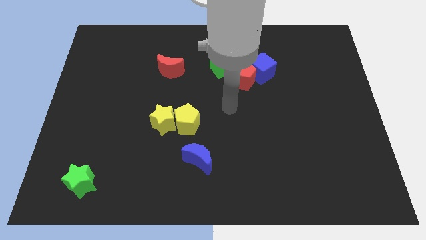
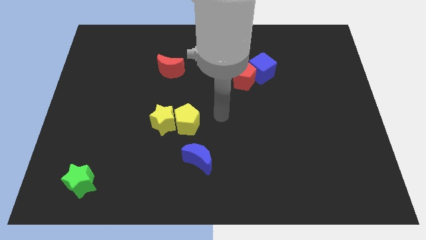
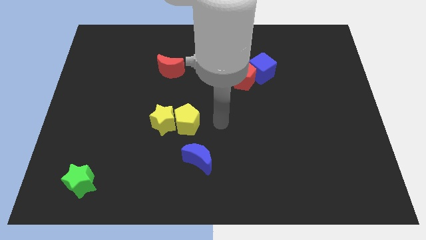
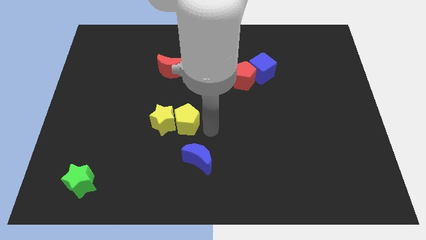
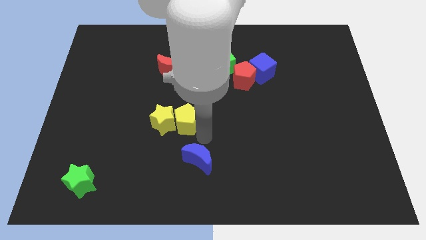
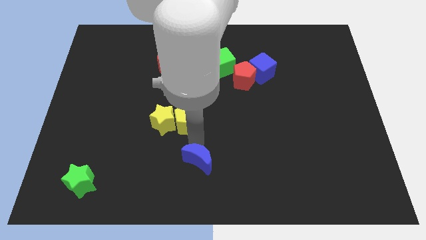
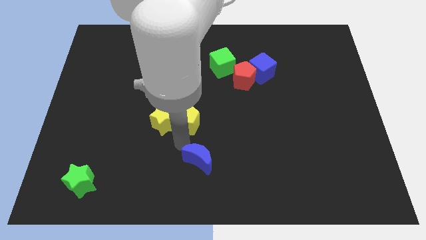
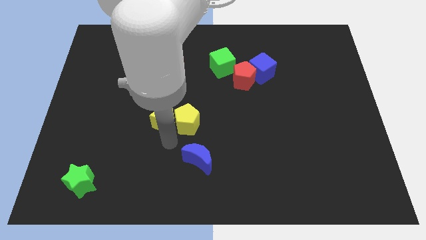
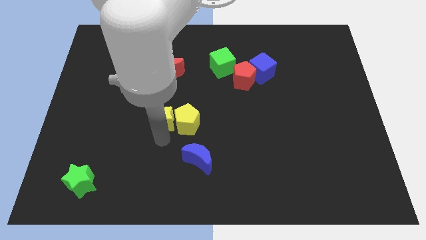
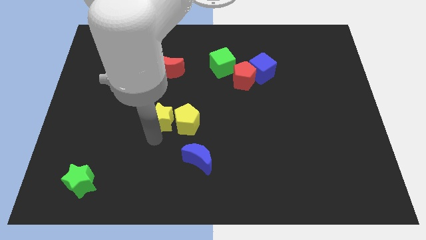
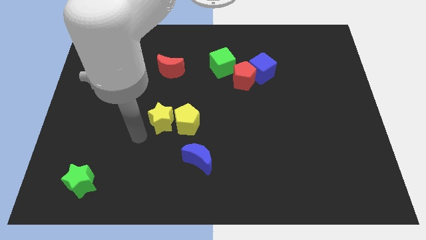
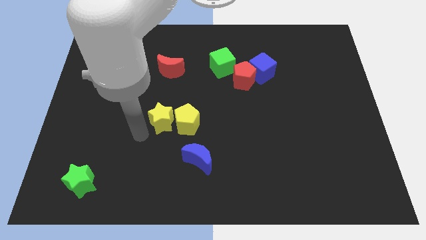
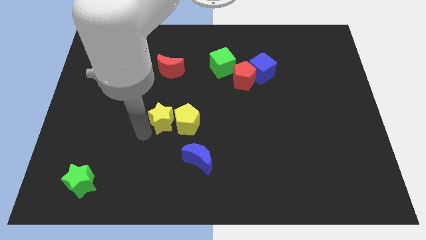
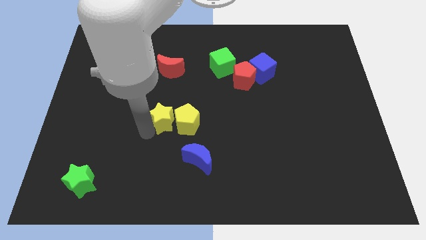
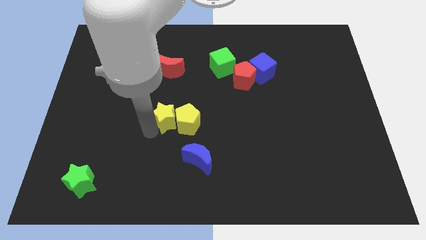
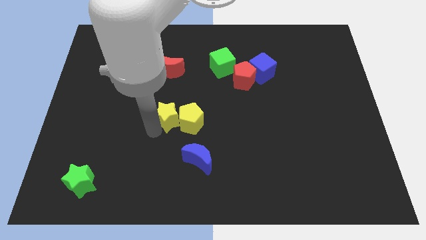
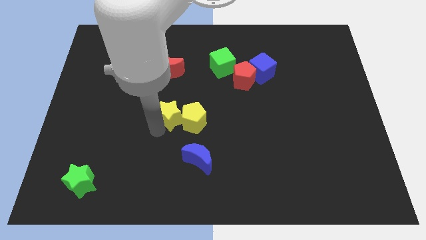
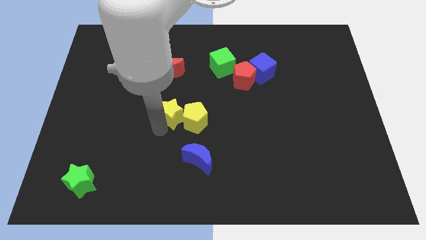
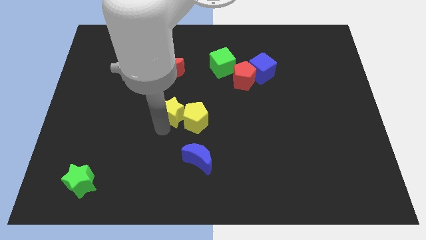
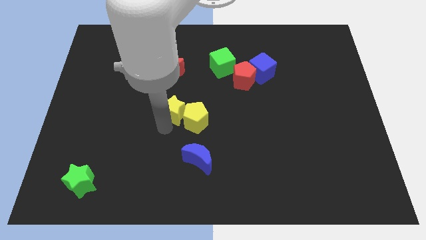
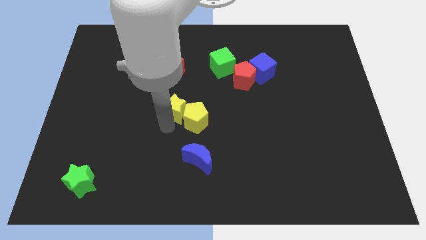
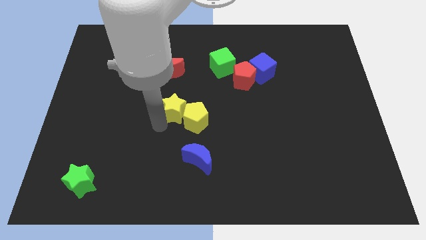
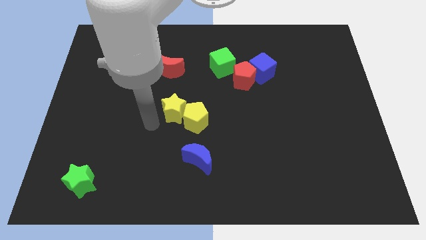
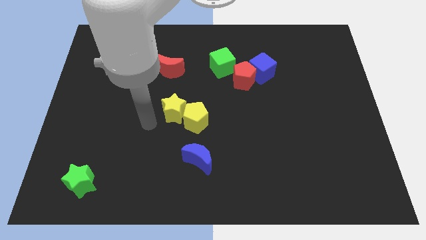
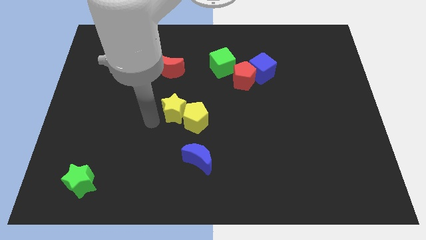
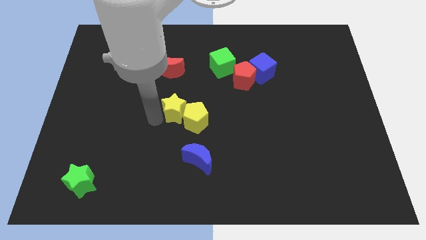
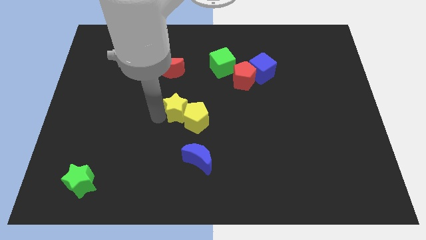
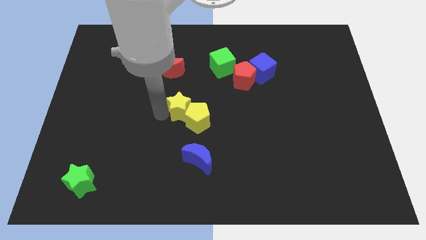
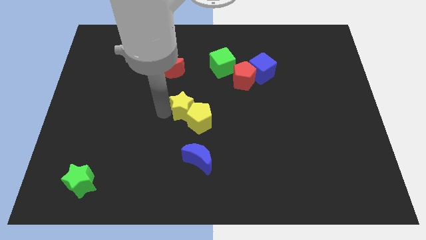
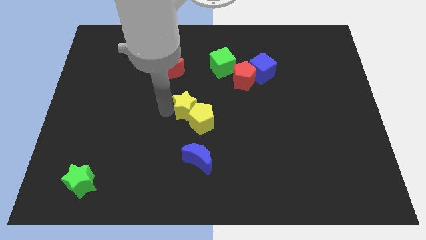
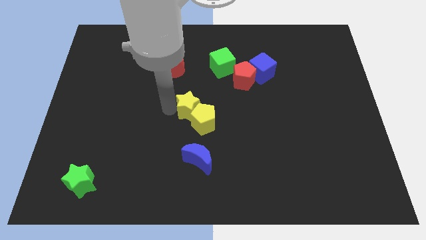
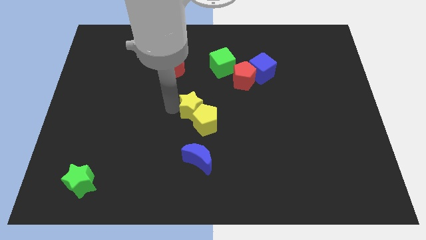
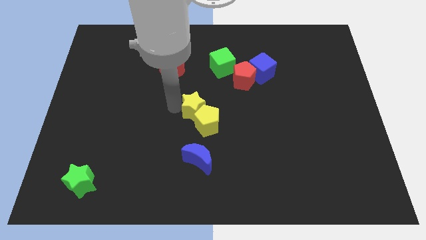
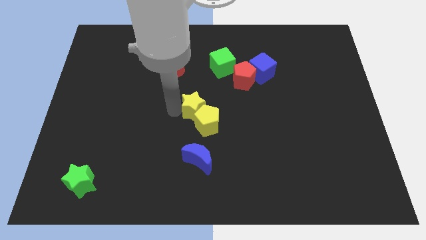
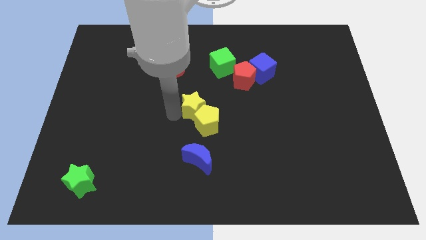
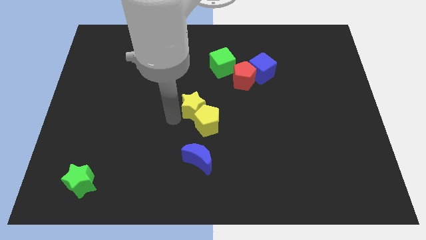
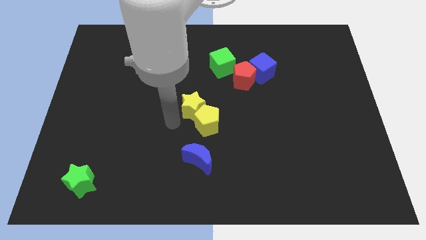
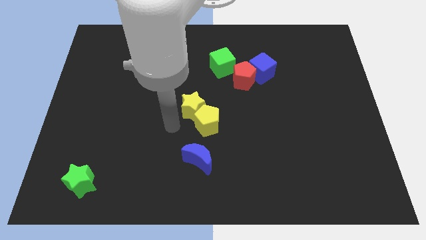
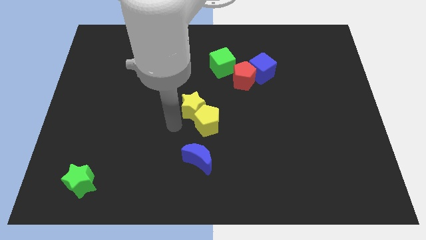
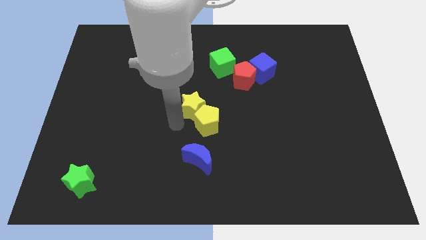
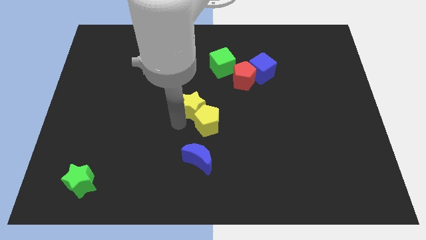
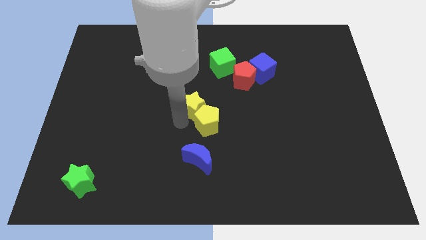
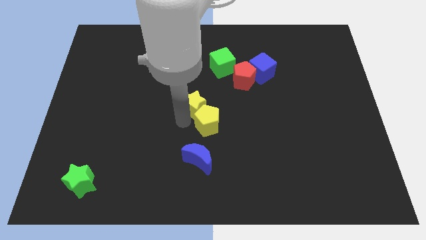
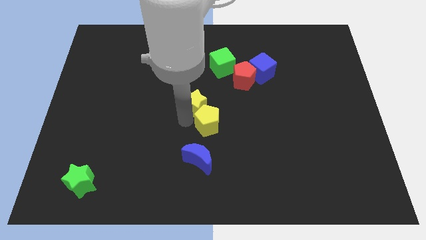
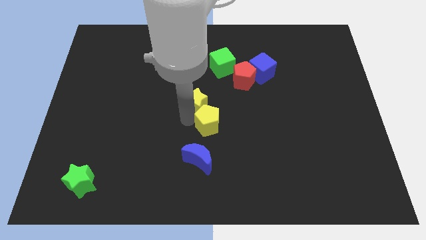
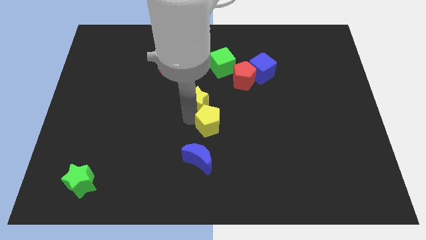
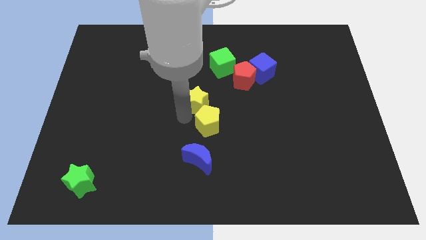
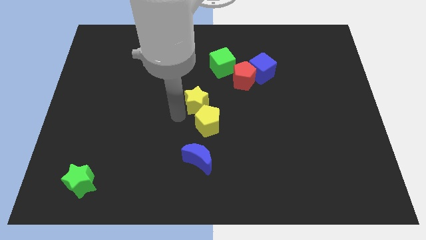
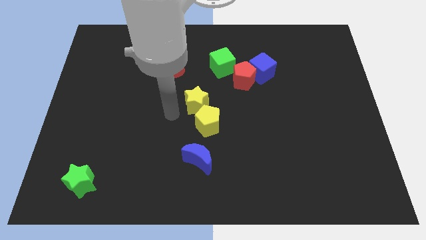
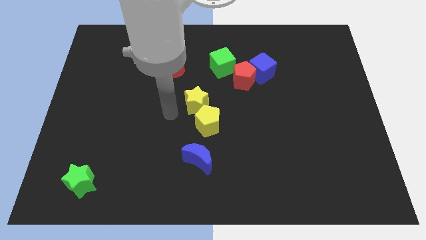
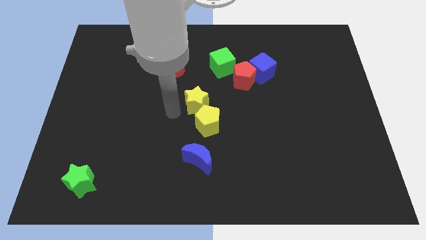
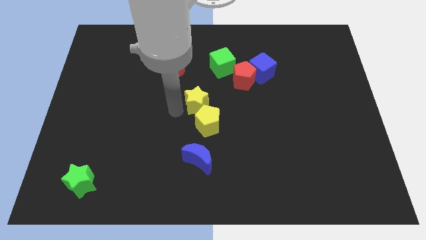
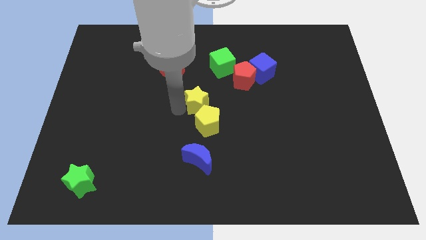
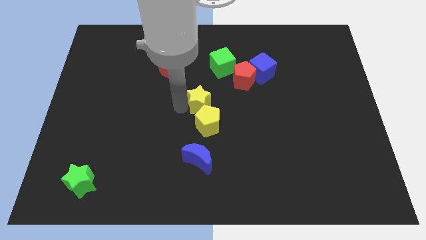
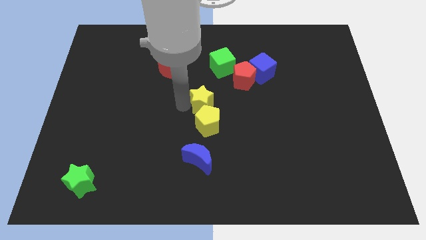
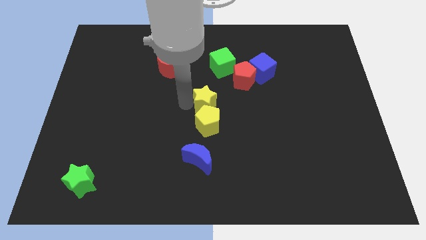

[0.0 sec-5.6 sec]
move the yellow star to the bottom left side of the red pentagon

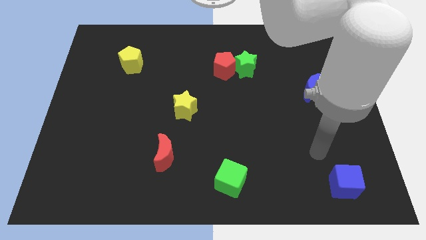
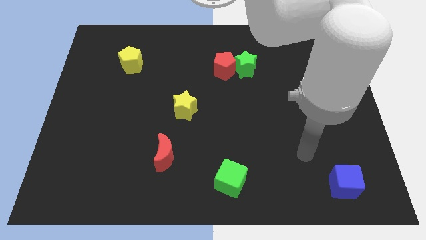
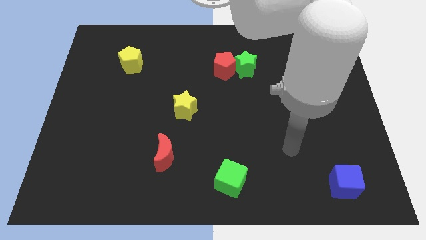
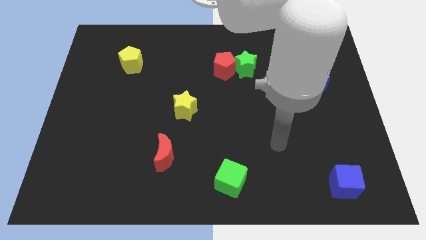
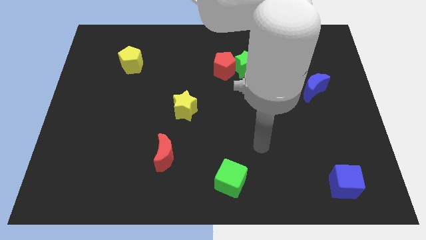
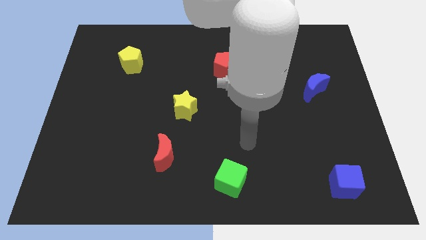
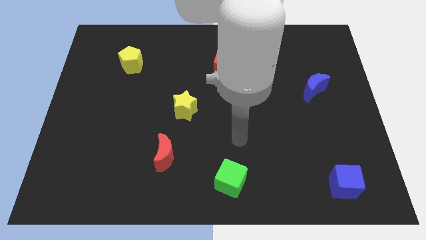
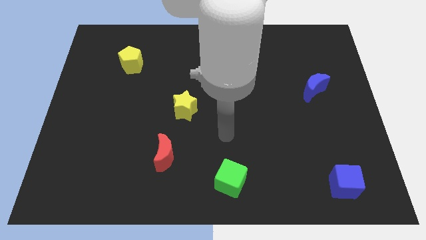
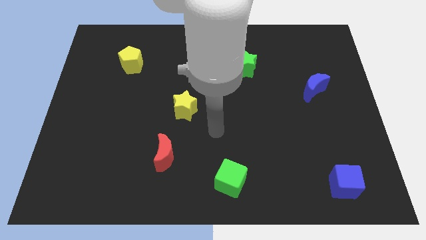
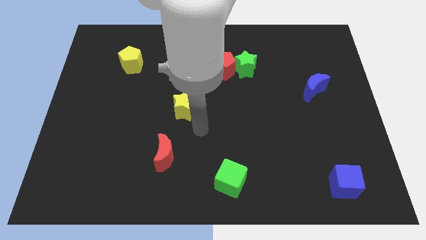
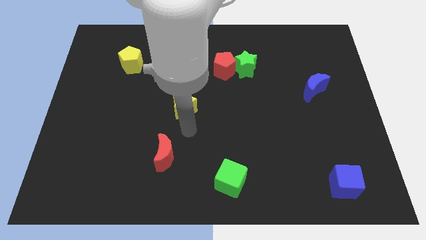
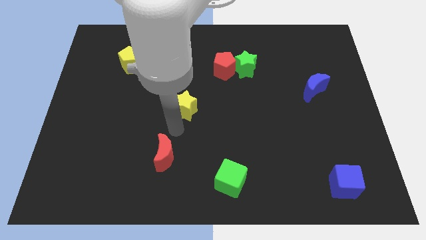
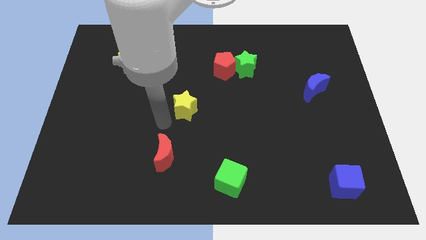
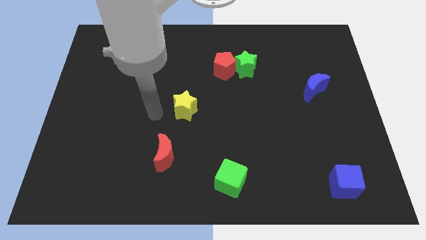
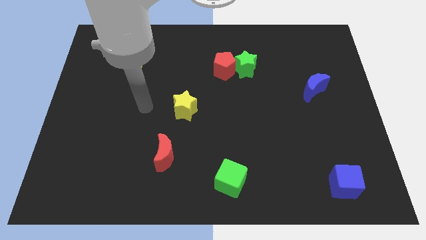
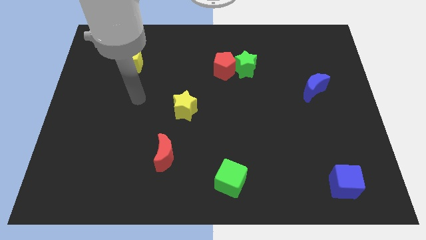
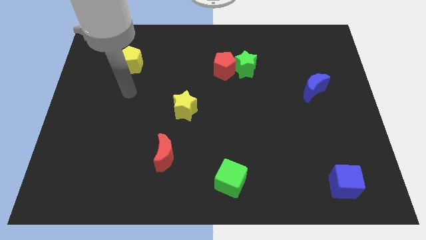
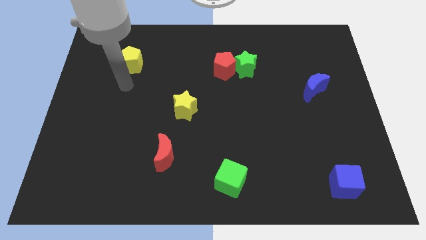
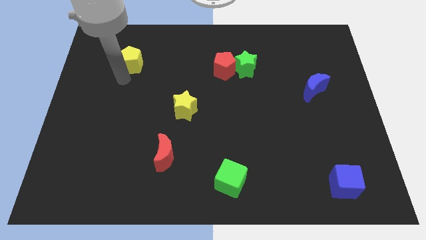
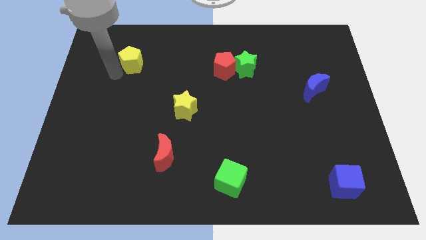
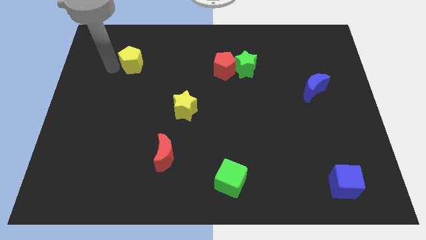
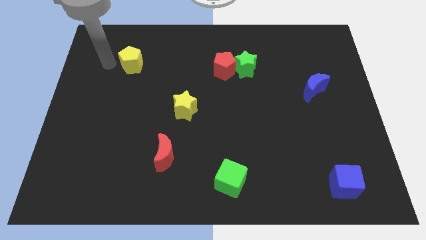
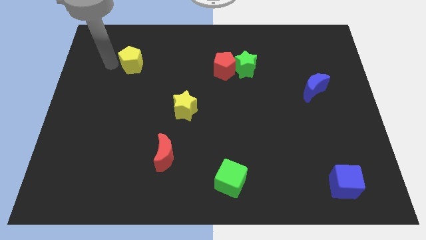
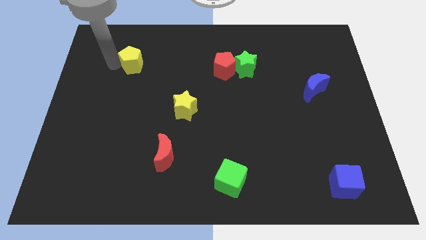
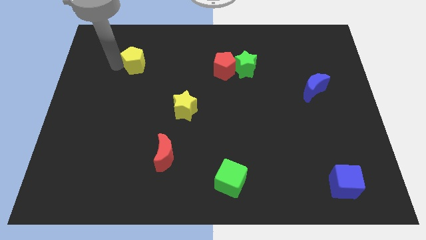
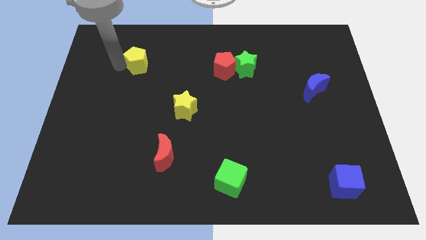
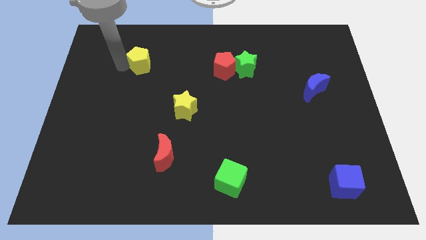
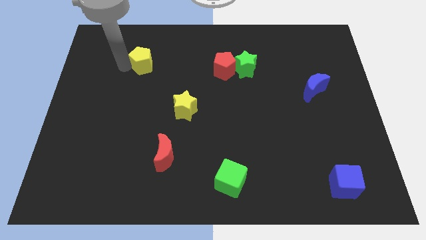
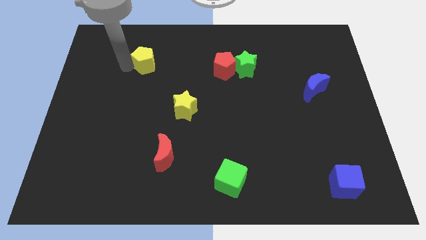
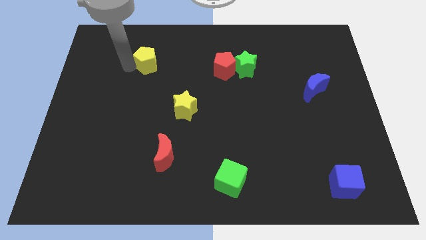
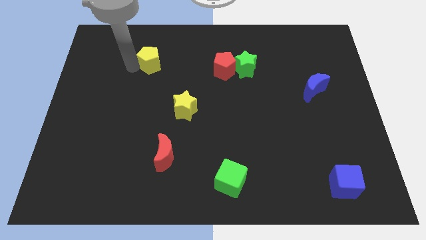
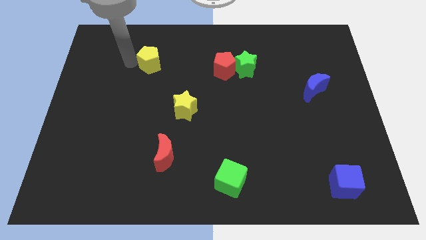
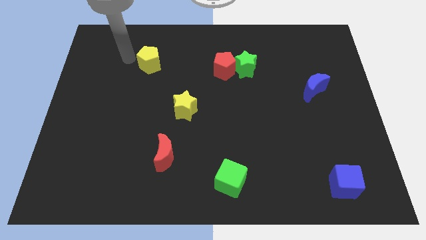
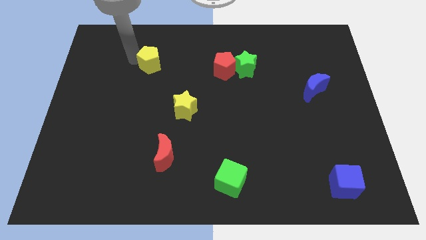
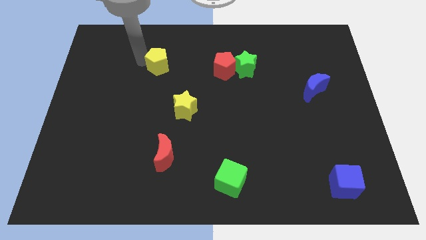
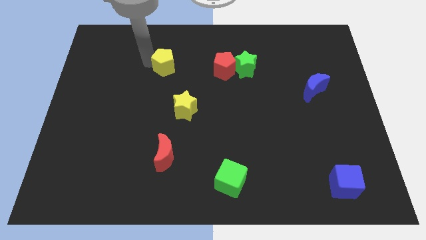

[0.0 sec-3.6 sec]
slide the yellow pentagon to the left of the red pentagon
